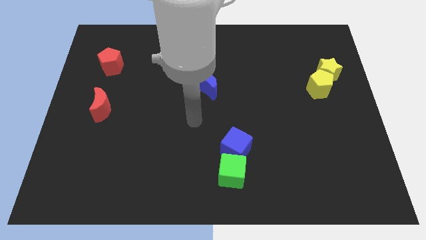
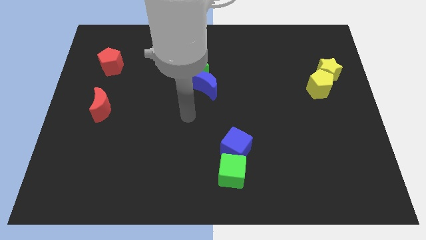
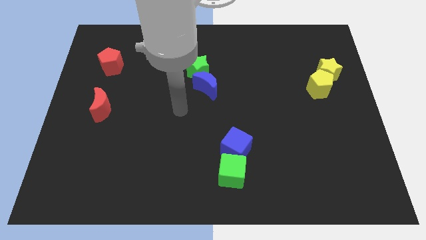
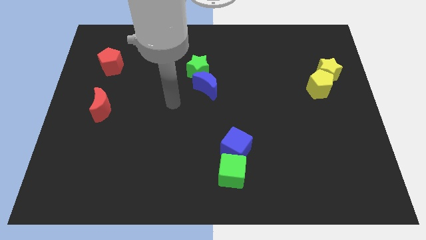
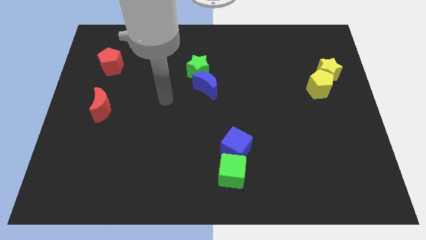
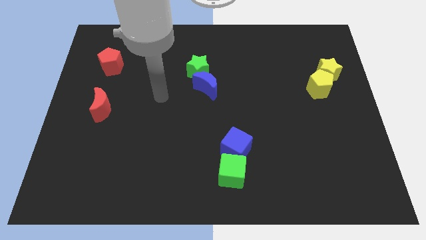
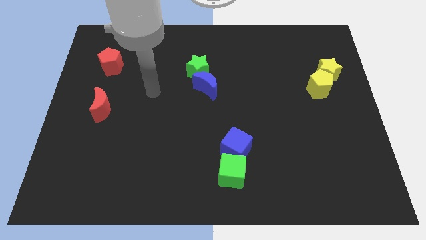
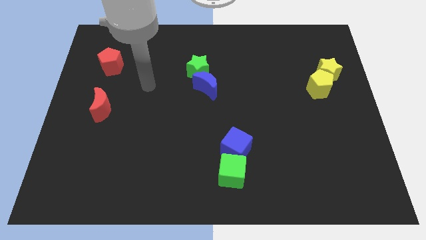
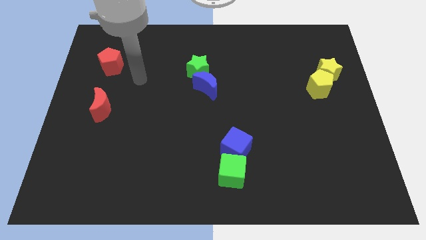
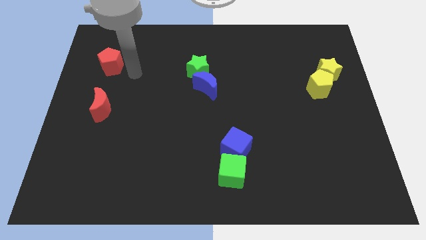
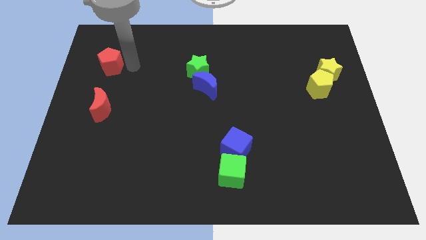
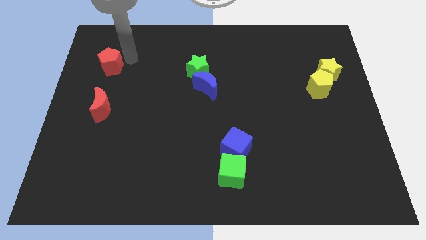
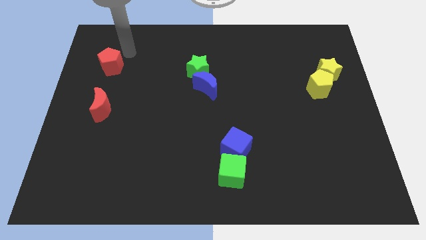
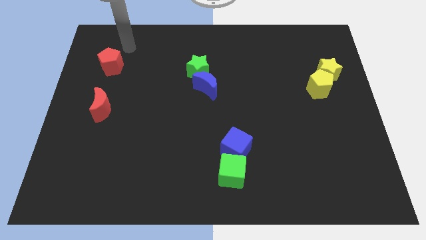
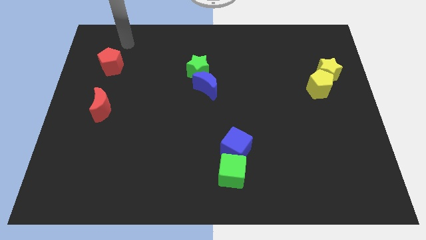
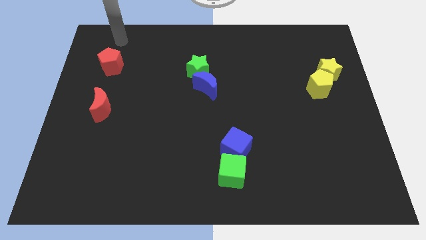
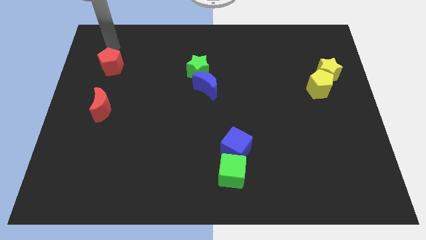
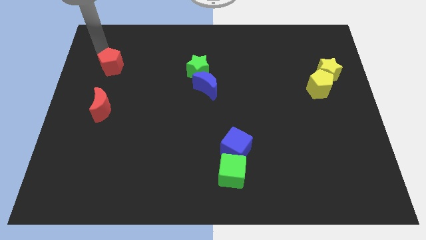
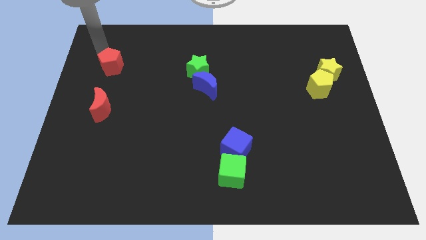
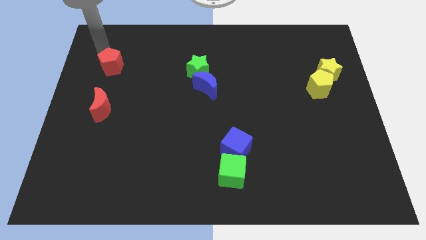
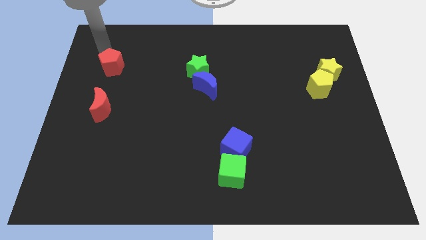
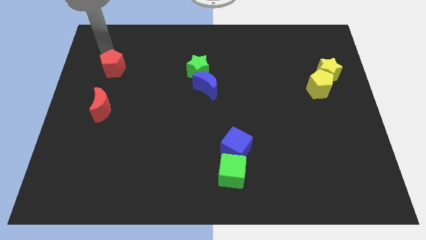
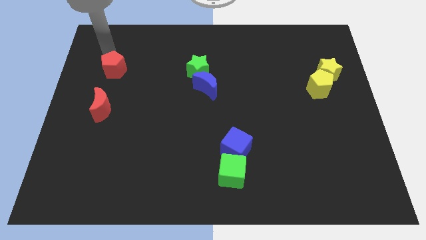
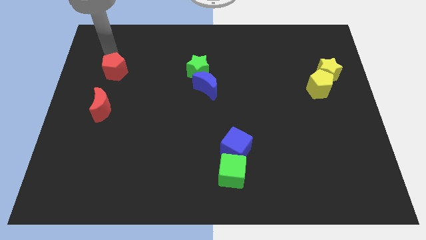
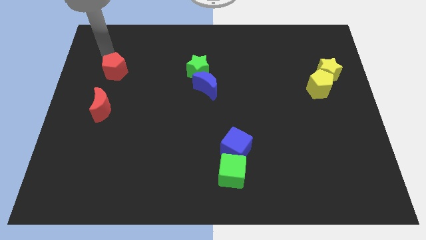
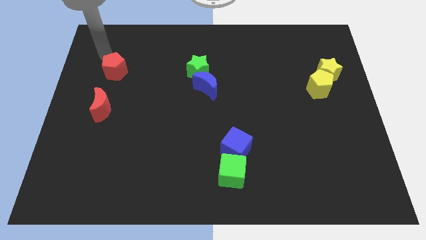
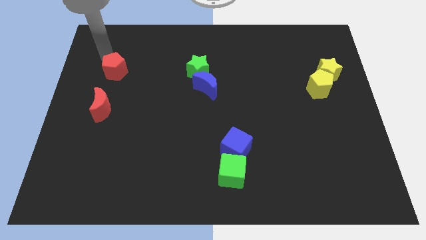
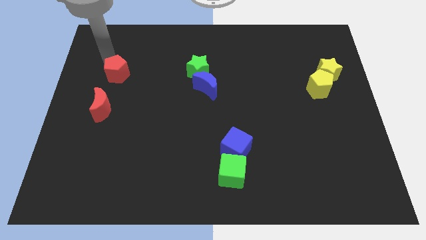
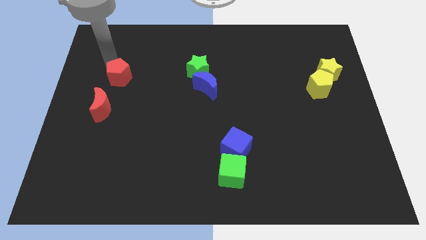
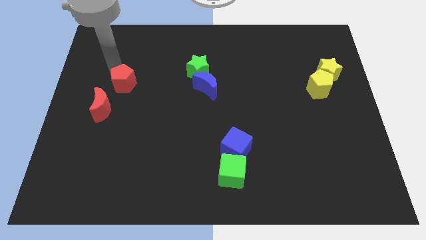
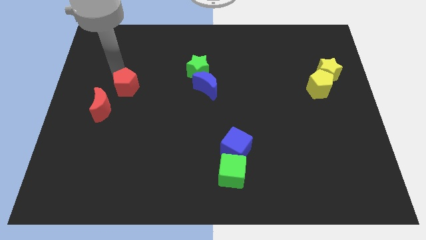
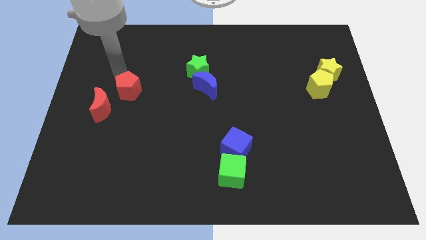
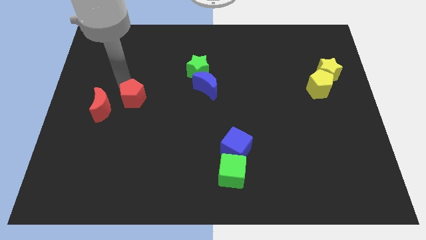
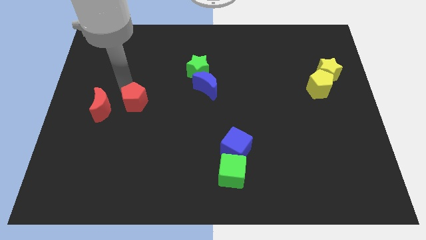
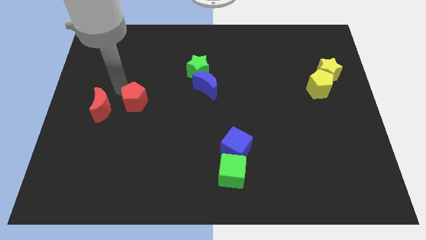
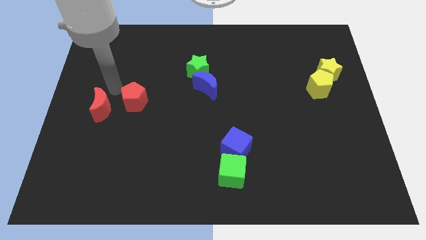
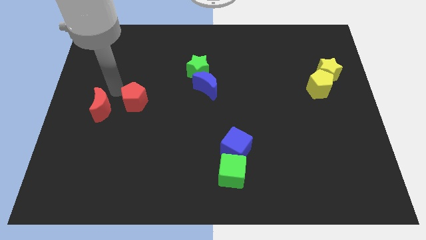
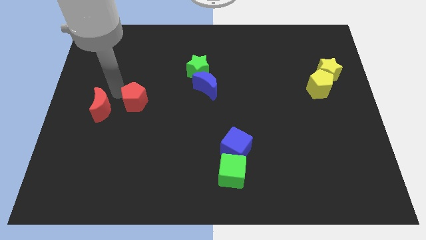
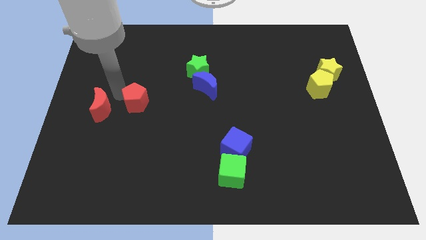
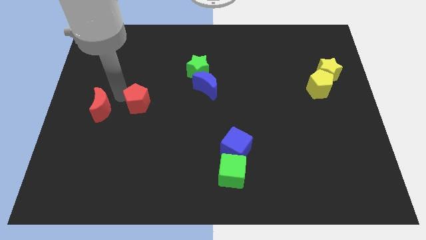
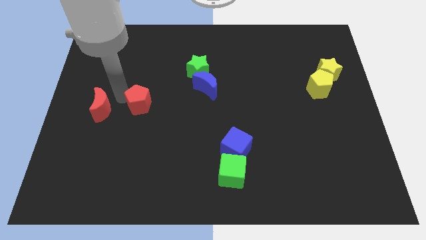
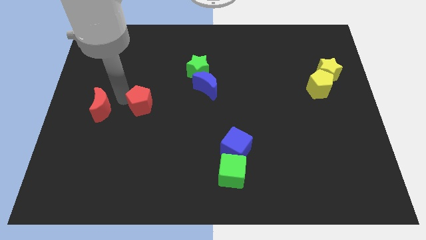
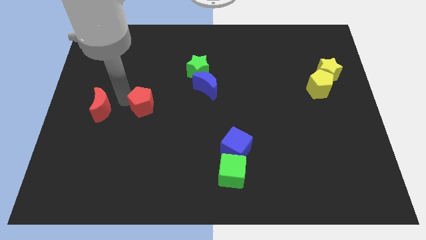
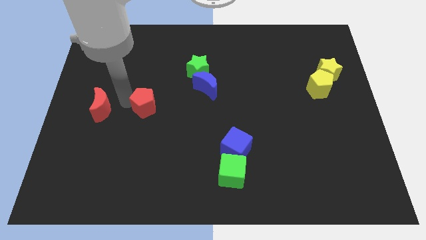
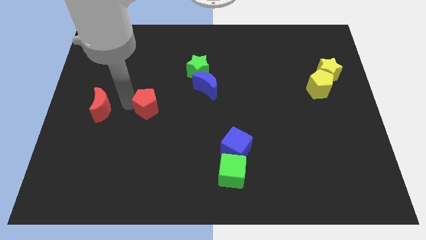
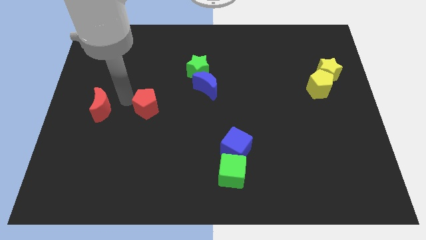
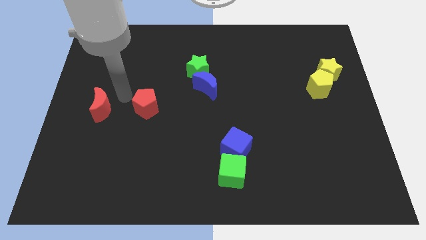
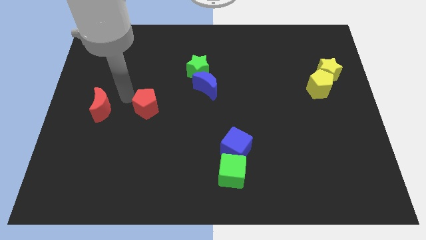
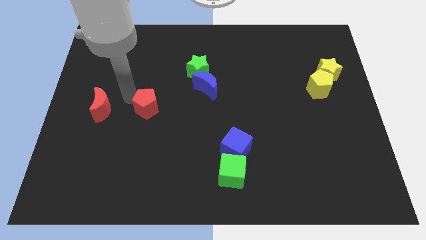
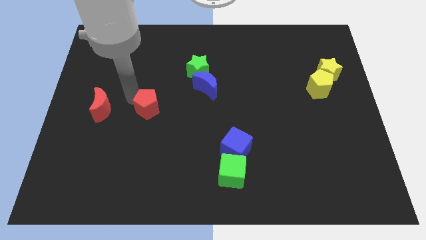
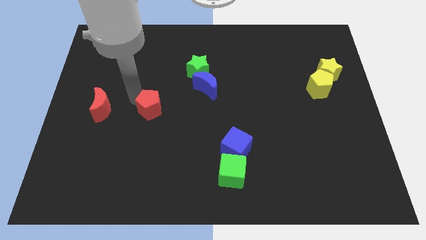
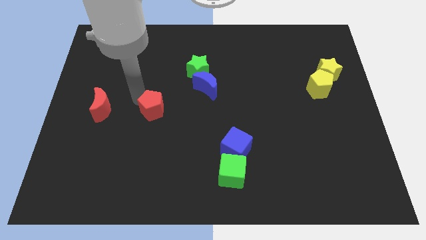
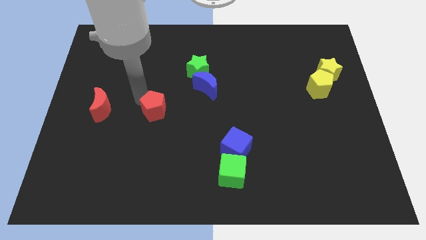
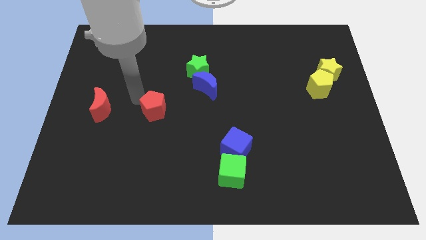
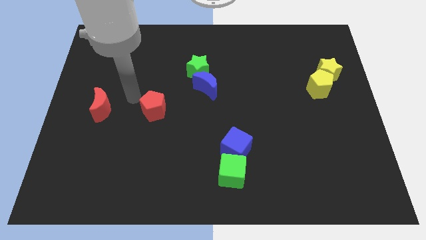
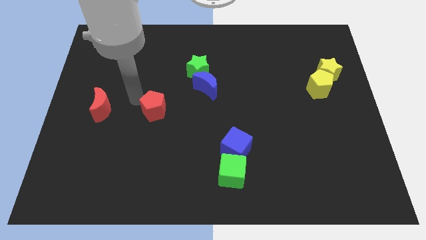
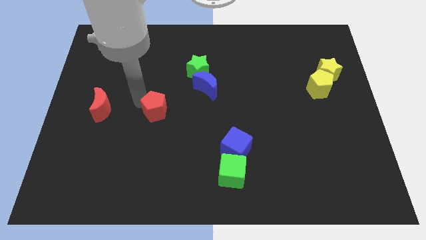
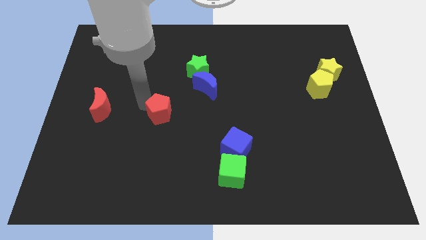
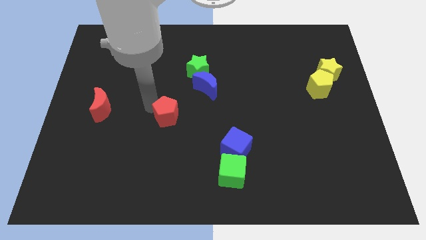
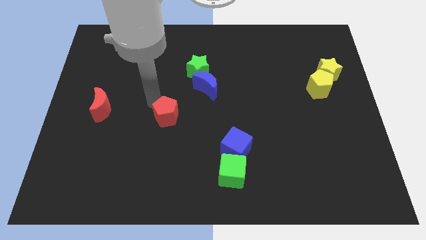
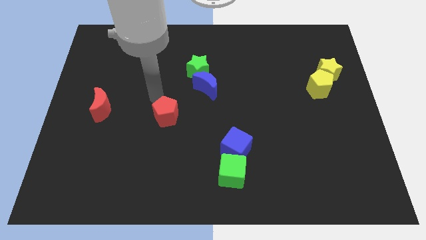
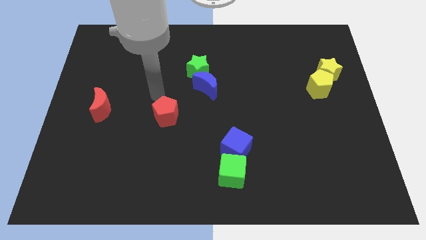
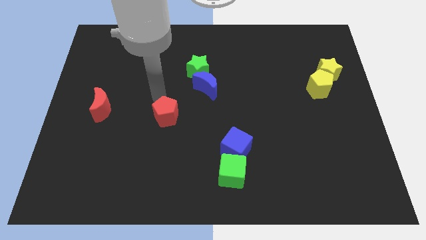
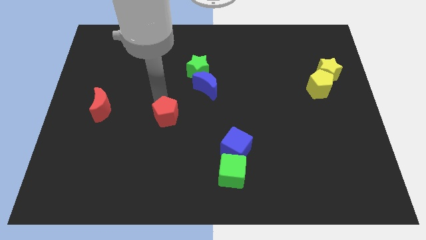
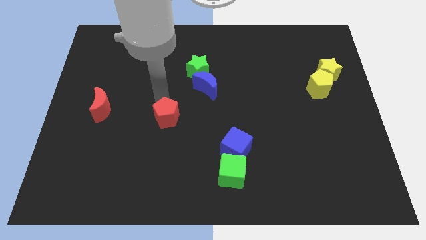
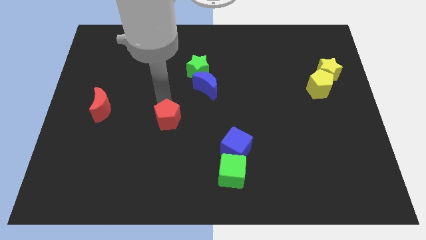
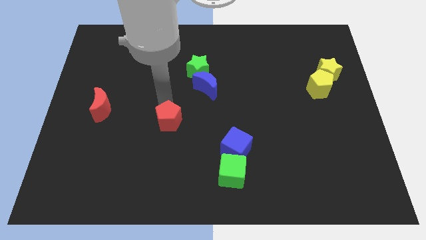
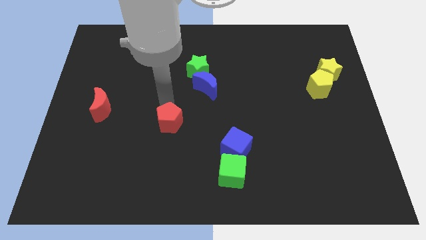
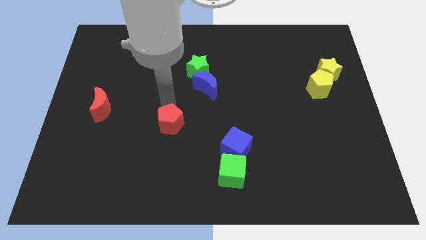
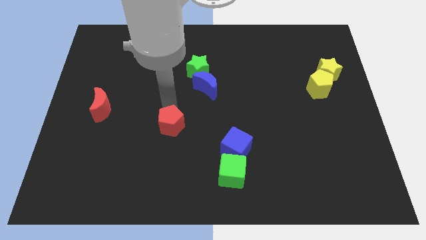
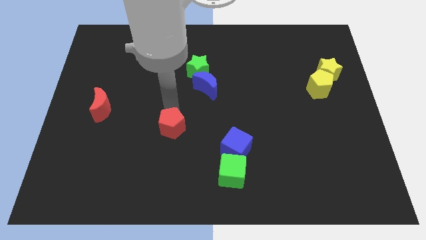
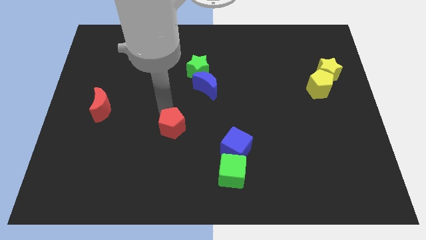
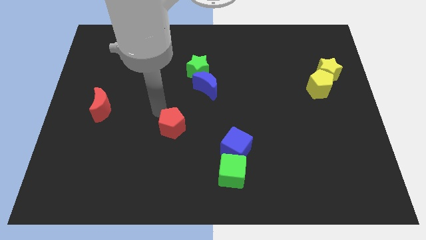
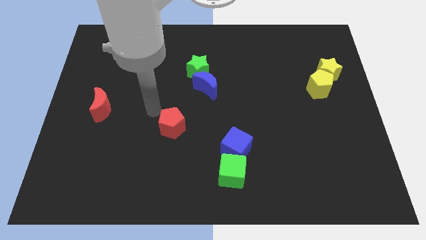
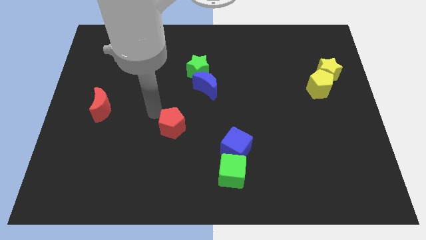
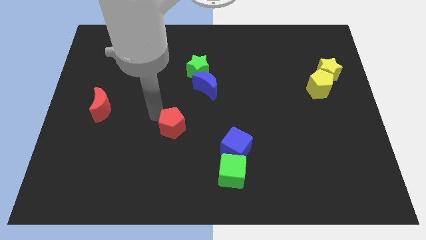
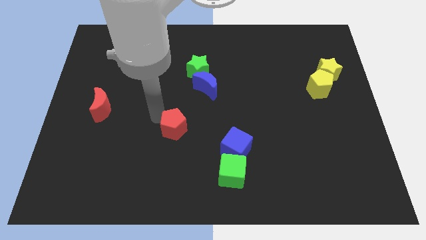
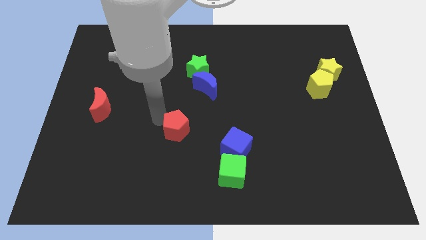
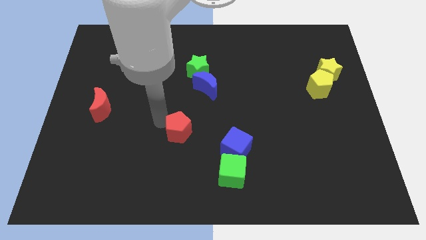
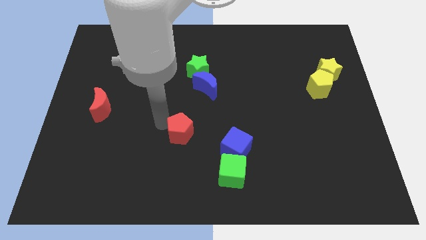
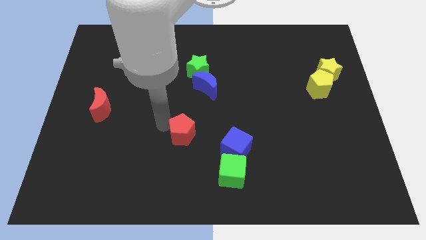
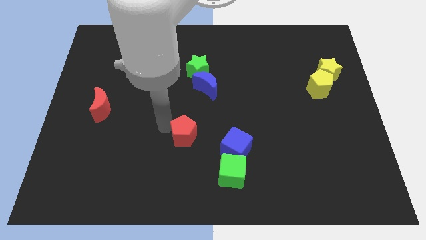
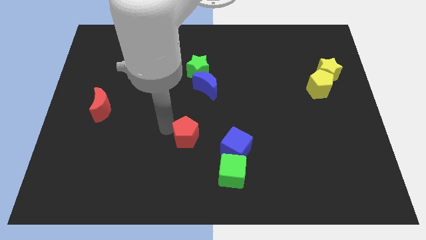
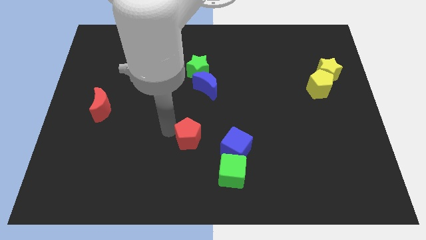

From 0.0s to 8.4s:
push the red pentagon to the top left side of the green cube
